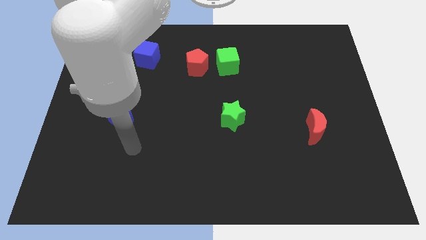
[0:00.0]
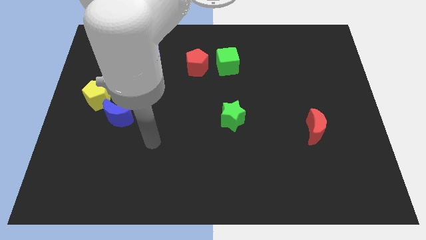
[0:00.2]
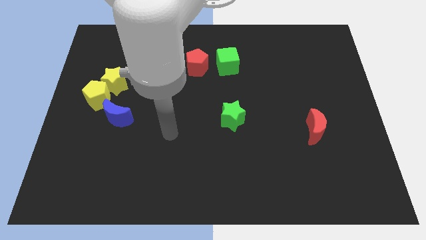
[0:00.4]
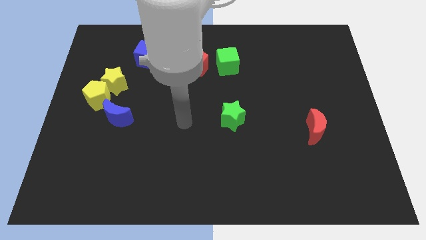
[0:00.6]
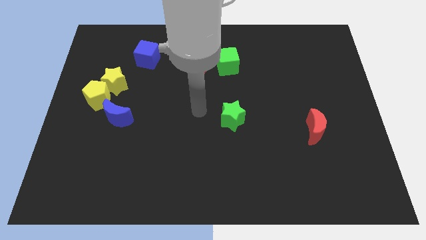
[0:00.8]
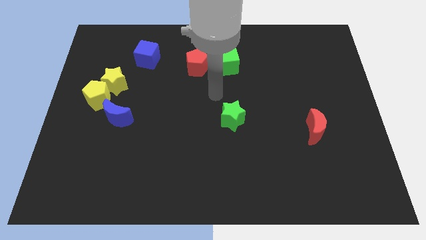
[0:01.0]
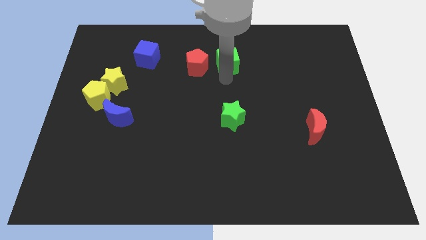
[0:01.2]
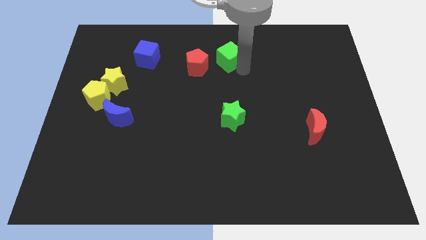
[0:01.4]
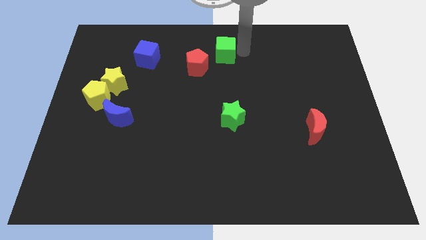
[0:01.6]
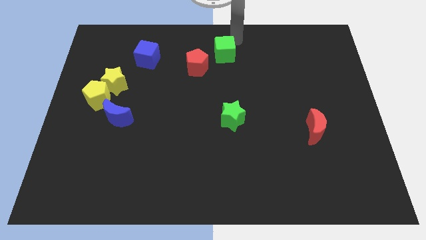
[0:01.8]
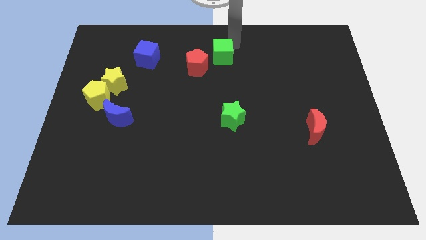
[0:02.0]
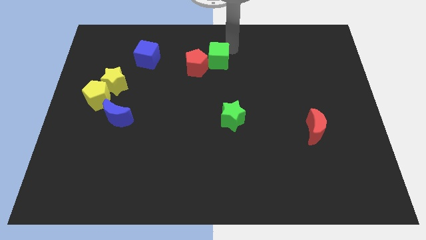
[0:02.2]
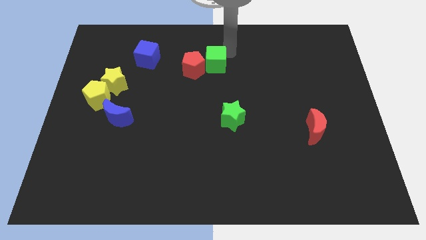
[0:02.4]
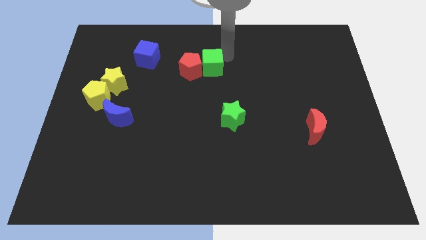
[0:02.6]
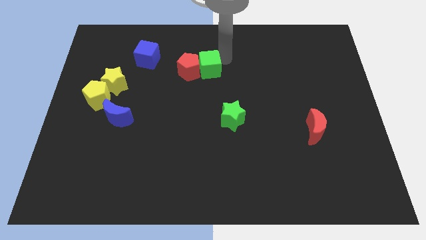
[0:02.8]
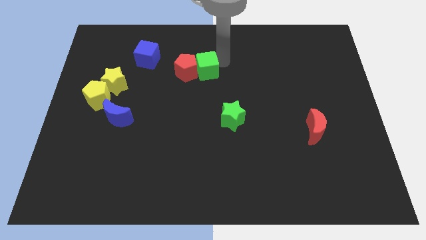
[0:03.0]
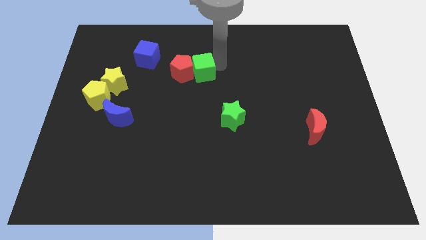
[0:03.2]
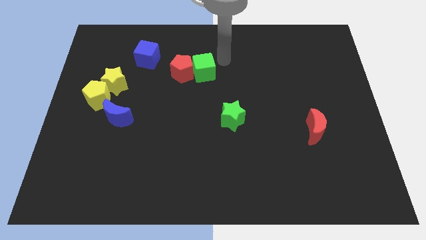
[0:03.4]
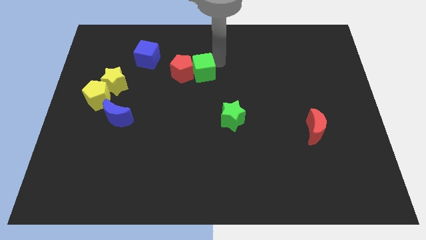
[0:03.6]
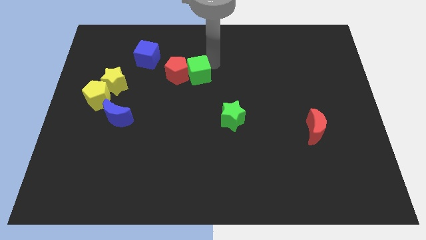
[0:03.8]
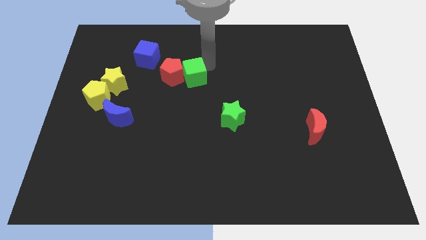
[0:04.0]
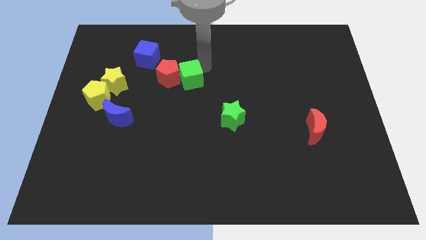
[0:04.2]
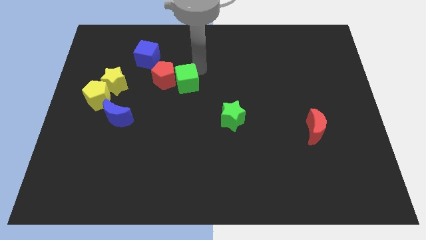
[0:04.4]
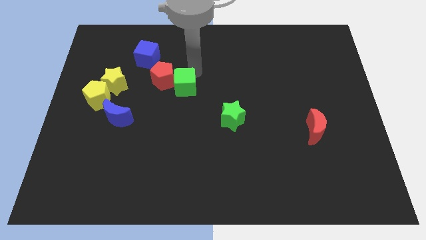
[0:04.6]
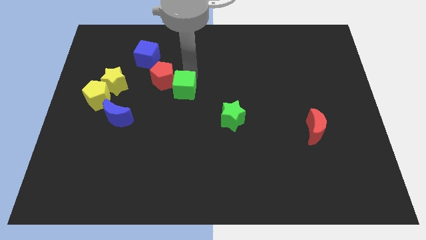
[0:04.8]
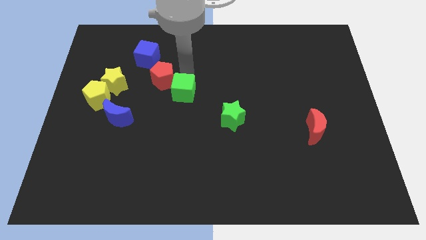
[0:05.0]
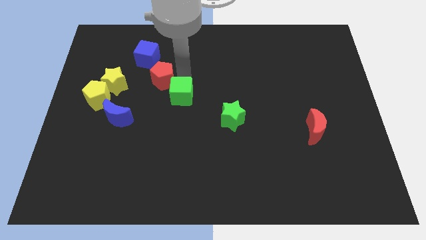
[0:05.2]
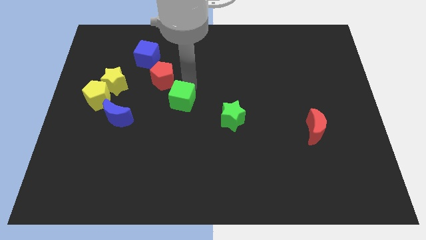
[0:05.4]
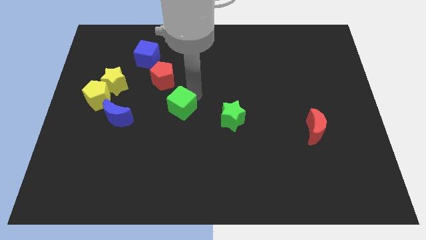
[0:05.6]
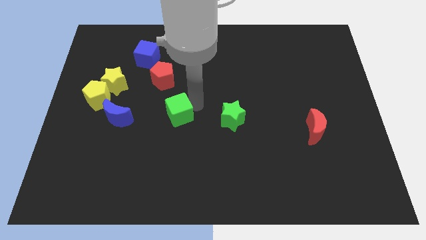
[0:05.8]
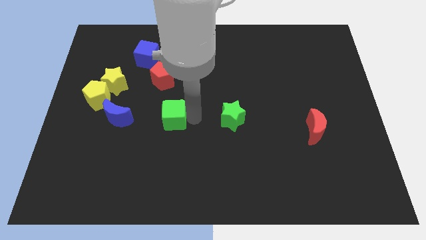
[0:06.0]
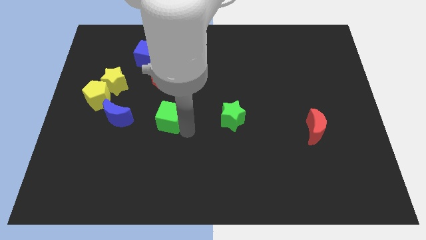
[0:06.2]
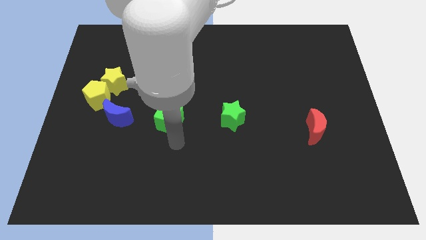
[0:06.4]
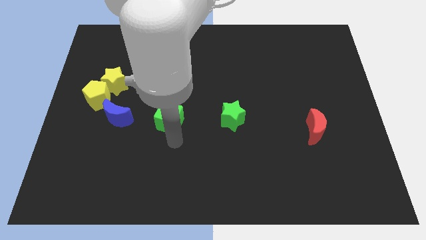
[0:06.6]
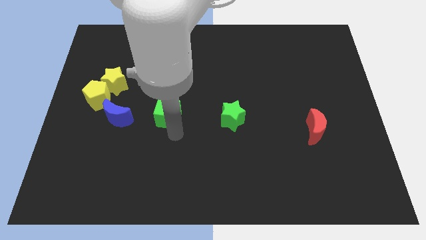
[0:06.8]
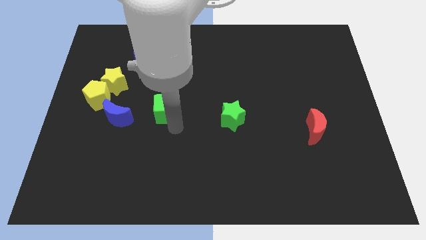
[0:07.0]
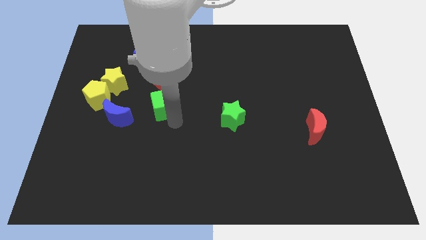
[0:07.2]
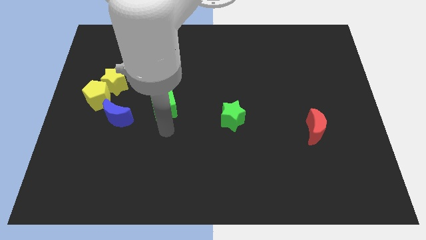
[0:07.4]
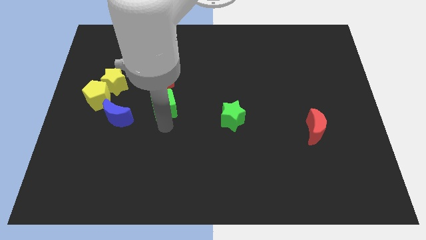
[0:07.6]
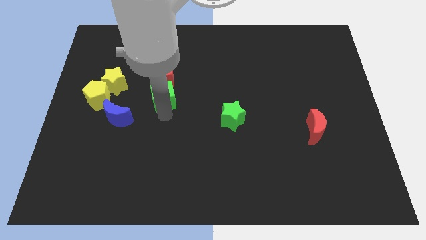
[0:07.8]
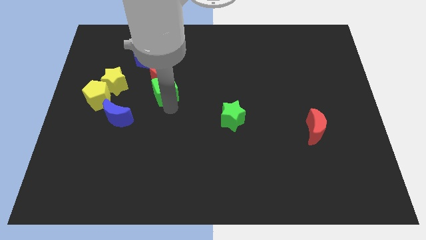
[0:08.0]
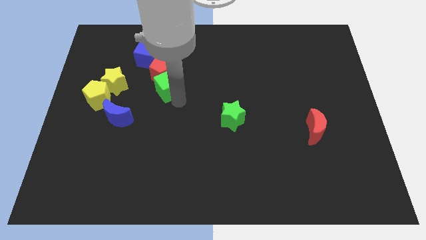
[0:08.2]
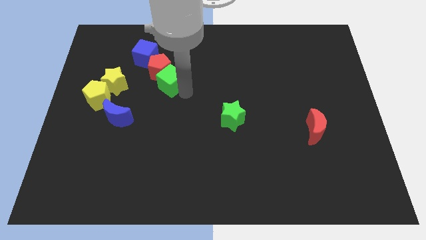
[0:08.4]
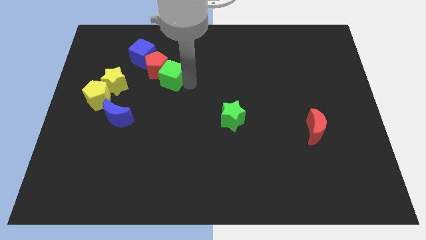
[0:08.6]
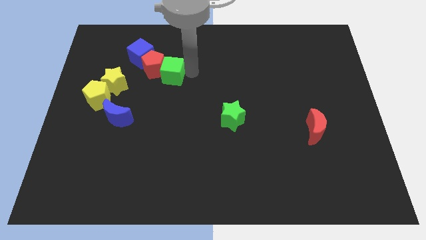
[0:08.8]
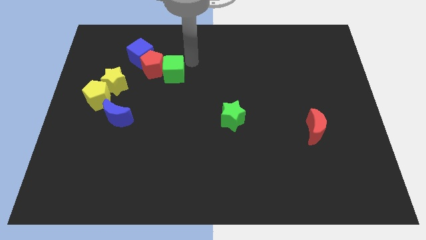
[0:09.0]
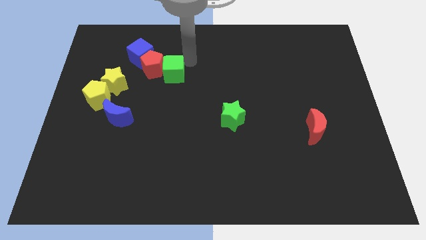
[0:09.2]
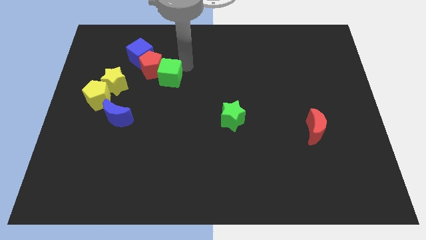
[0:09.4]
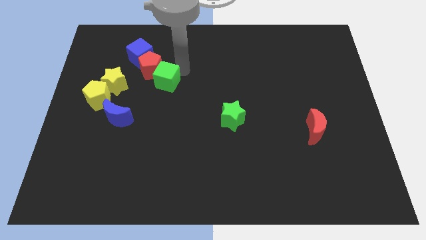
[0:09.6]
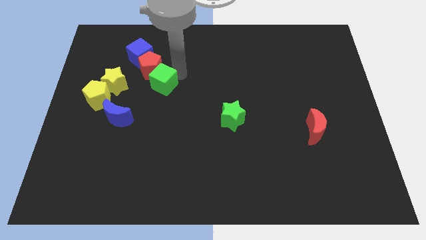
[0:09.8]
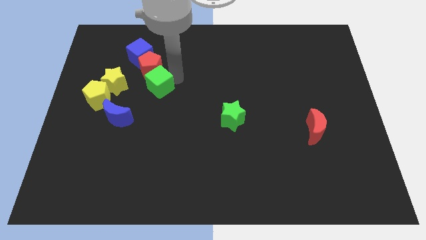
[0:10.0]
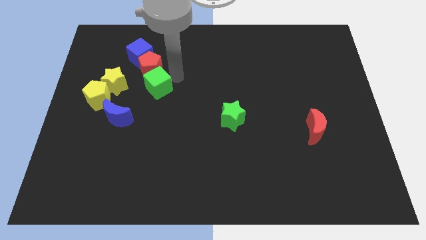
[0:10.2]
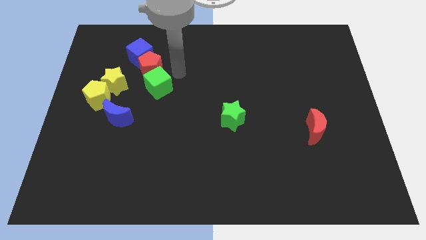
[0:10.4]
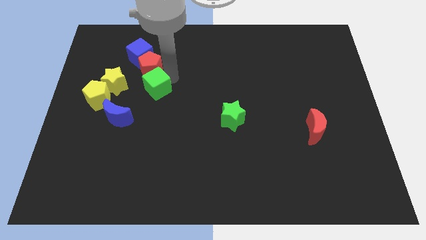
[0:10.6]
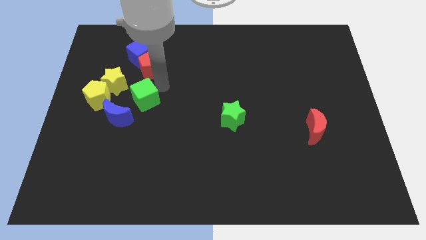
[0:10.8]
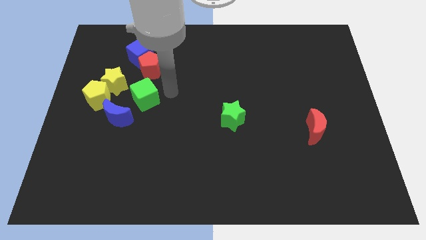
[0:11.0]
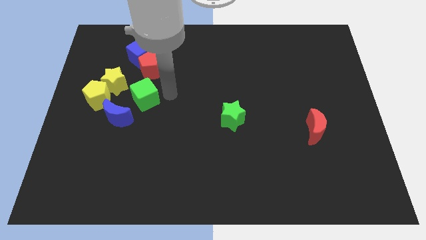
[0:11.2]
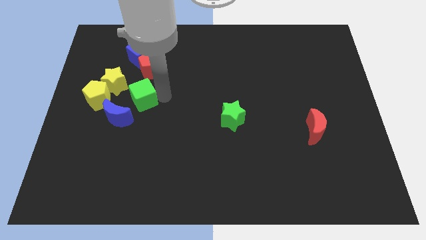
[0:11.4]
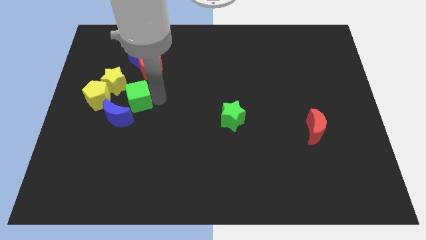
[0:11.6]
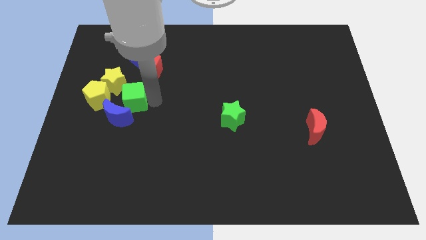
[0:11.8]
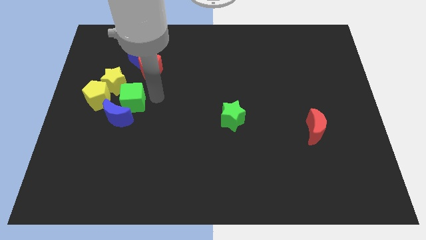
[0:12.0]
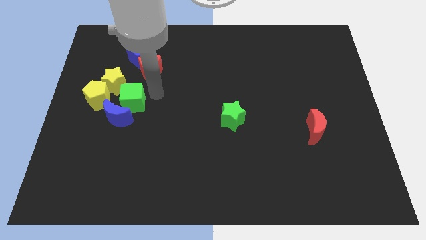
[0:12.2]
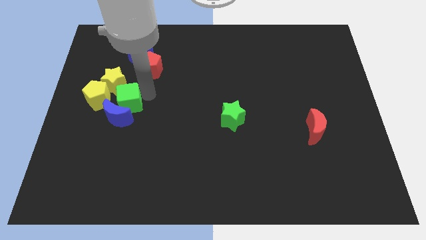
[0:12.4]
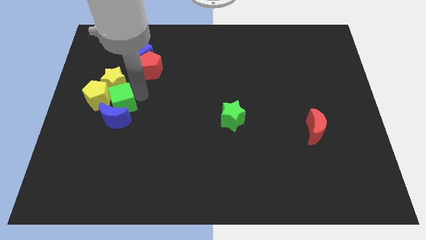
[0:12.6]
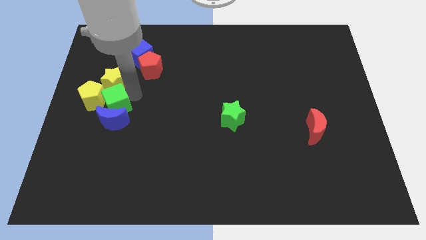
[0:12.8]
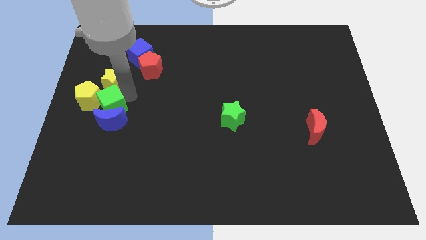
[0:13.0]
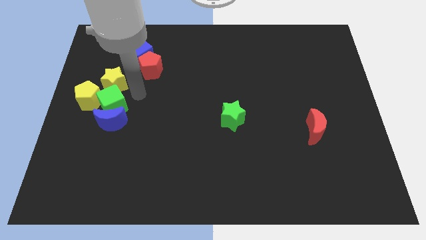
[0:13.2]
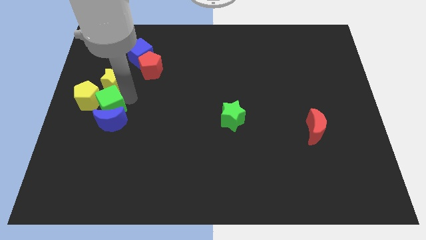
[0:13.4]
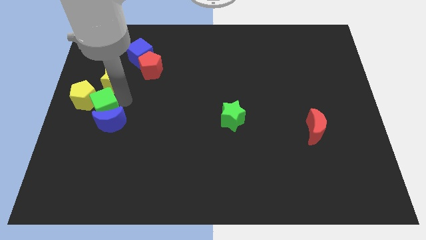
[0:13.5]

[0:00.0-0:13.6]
move the green cube to the left side of the board

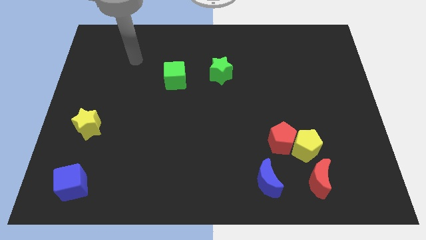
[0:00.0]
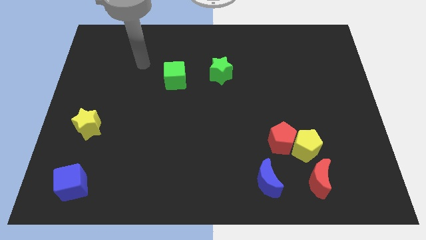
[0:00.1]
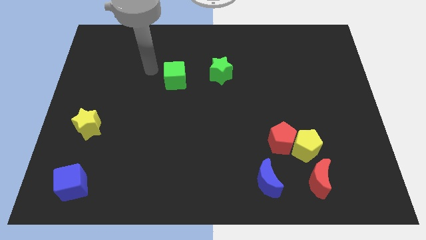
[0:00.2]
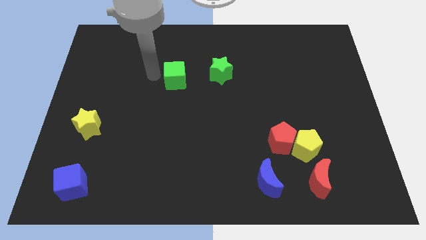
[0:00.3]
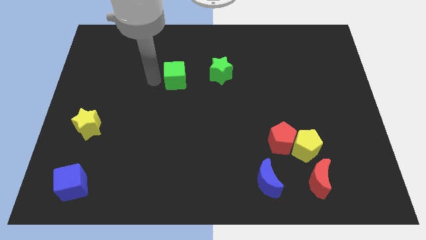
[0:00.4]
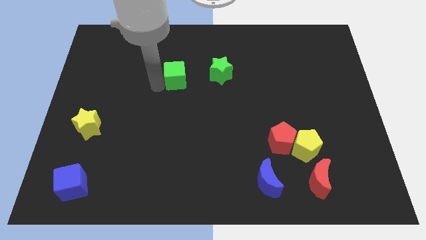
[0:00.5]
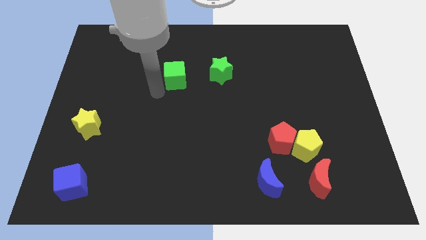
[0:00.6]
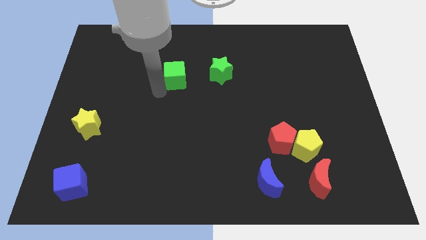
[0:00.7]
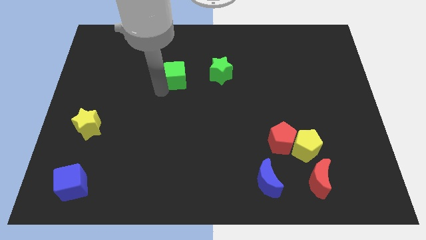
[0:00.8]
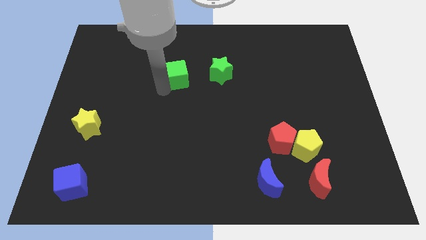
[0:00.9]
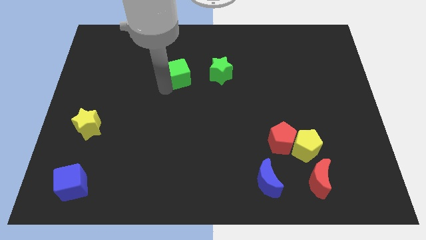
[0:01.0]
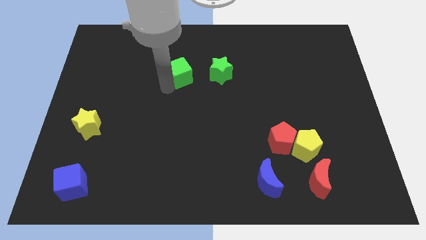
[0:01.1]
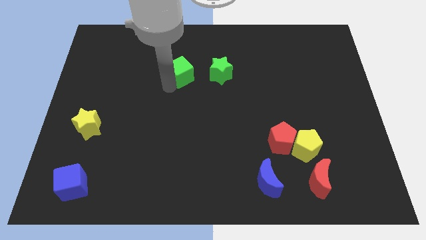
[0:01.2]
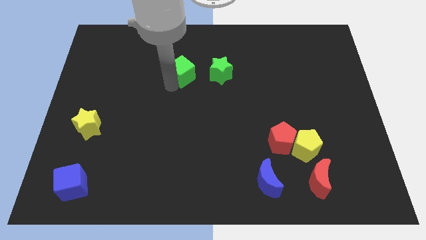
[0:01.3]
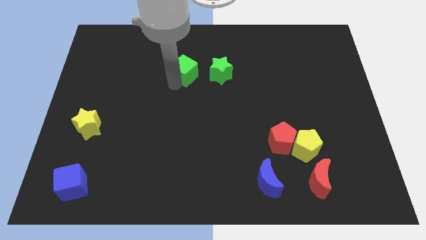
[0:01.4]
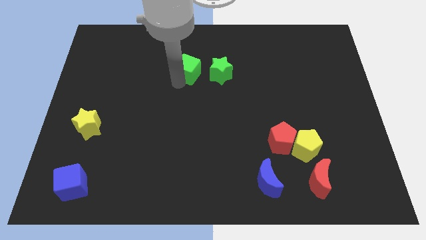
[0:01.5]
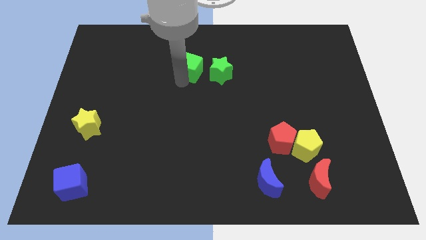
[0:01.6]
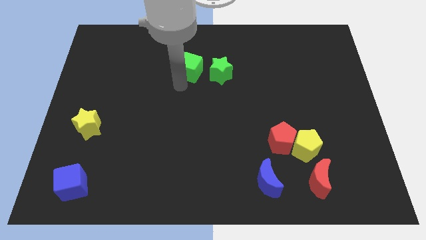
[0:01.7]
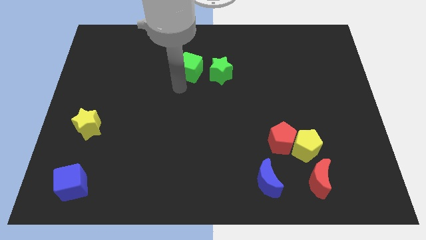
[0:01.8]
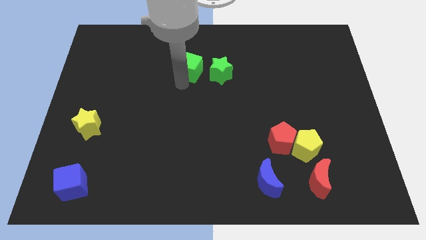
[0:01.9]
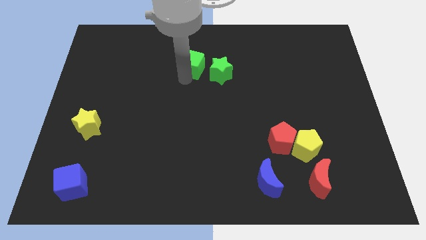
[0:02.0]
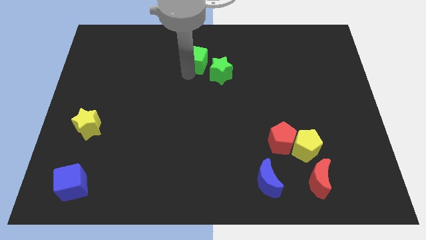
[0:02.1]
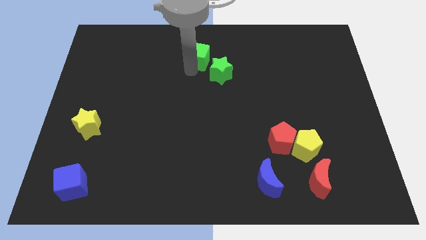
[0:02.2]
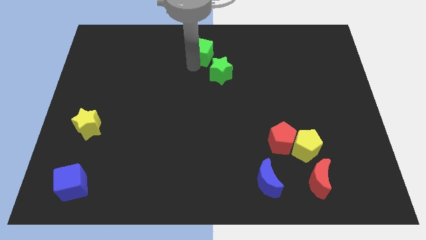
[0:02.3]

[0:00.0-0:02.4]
push the green cube to the towards your base
